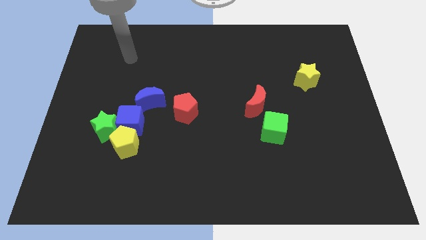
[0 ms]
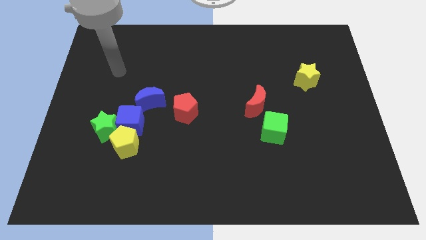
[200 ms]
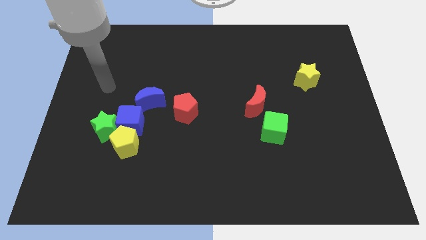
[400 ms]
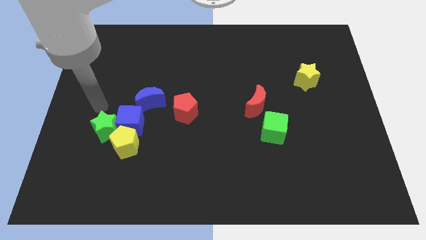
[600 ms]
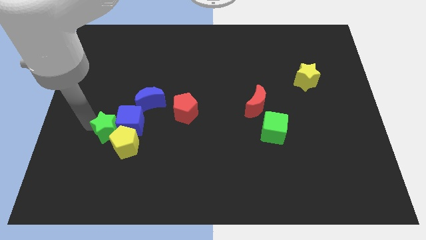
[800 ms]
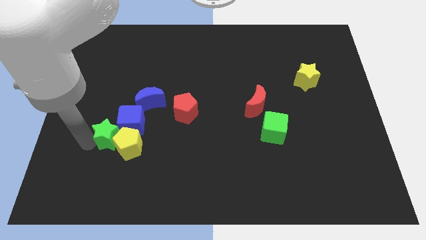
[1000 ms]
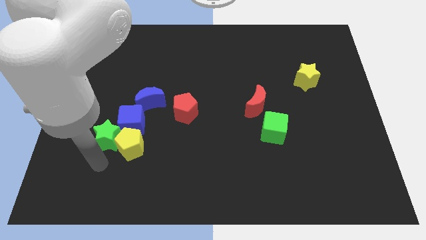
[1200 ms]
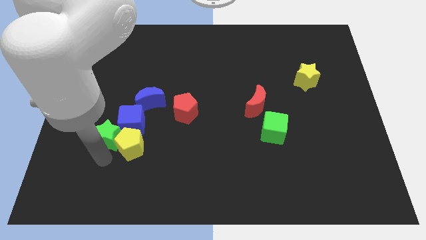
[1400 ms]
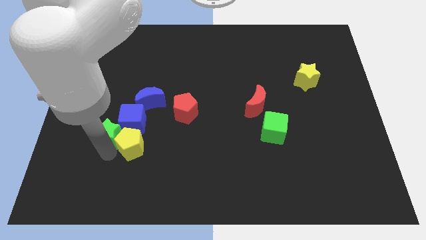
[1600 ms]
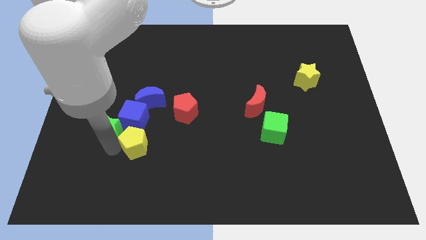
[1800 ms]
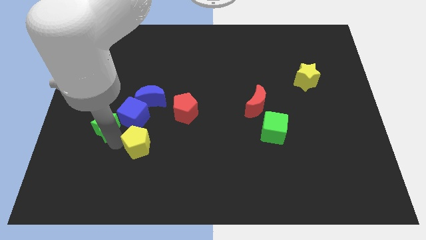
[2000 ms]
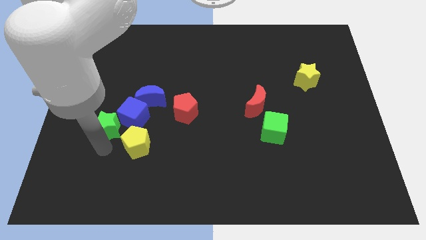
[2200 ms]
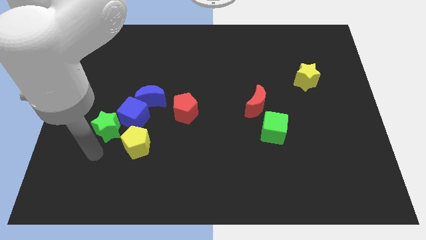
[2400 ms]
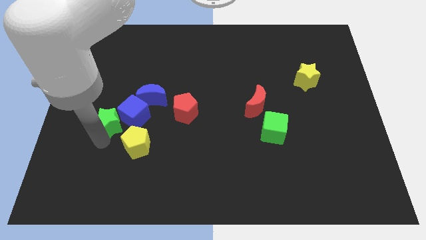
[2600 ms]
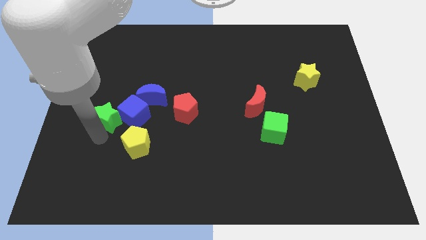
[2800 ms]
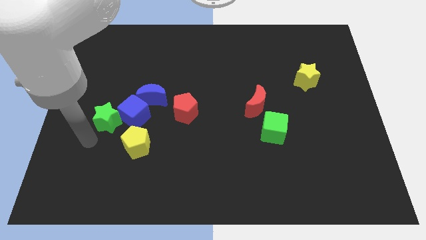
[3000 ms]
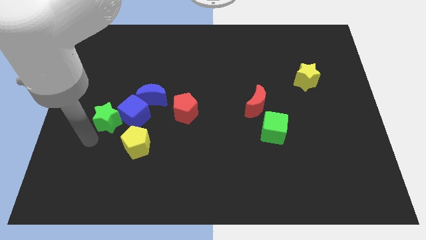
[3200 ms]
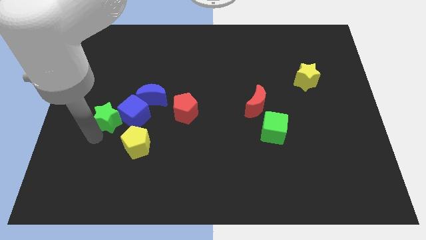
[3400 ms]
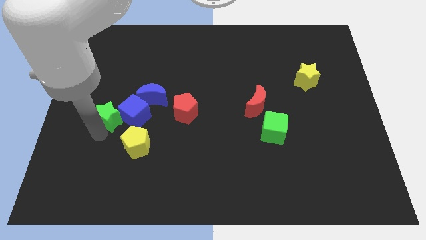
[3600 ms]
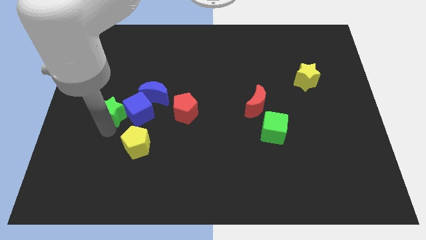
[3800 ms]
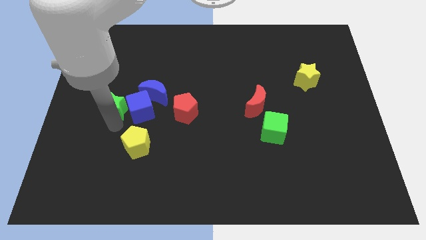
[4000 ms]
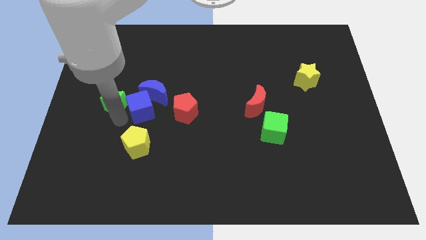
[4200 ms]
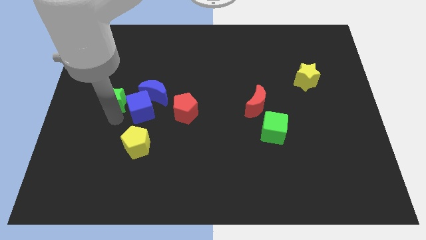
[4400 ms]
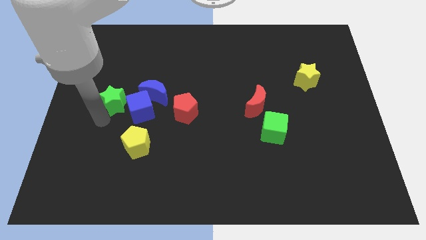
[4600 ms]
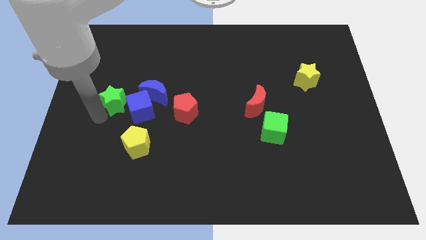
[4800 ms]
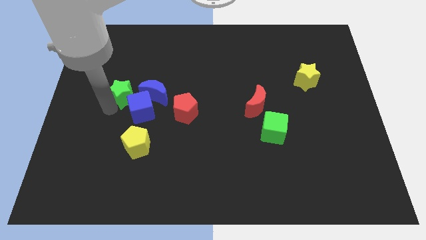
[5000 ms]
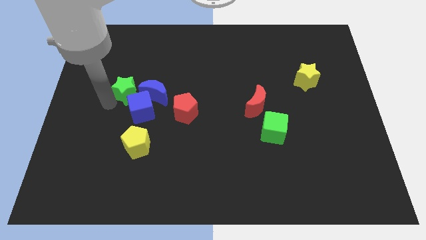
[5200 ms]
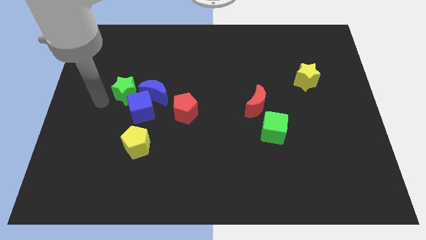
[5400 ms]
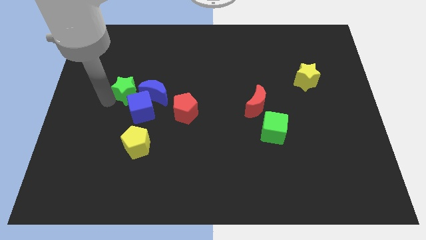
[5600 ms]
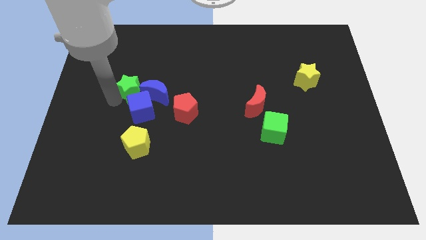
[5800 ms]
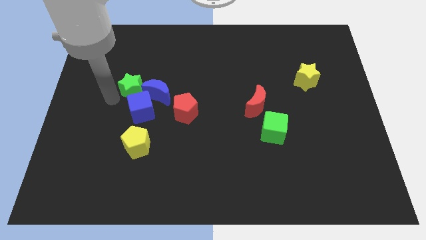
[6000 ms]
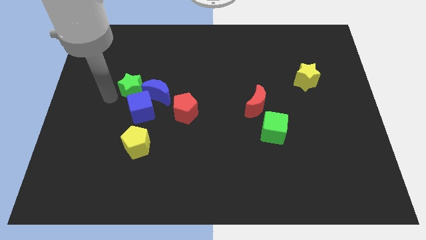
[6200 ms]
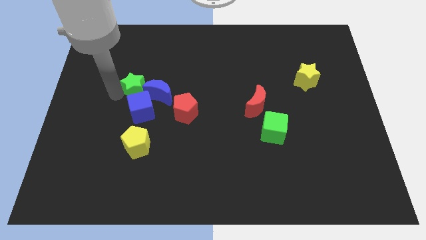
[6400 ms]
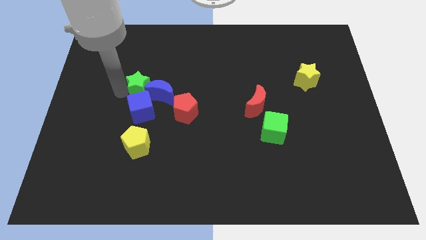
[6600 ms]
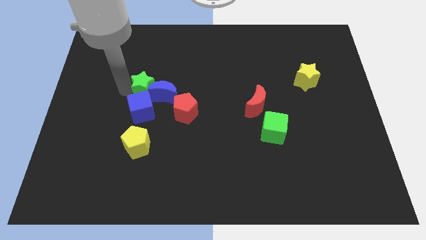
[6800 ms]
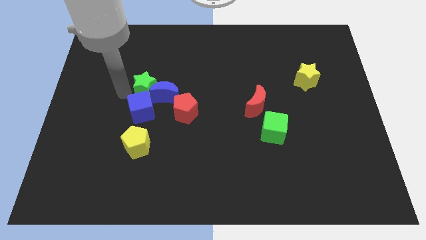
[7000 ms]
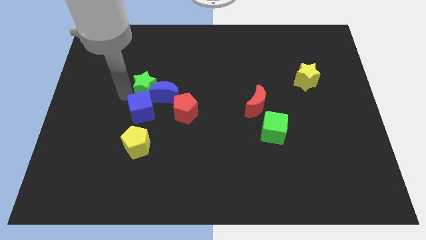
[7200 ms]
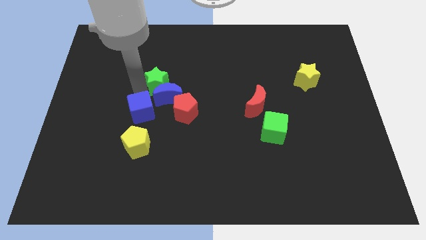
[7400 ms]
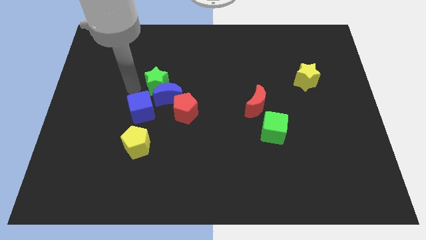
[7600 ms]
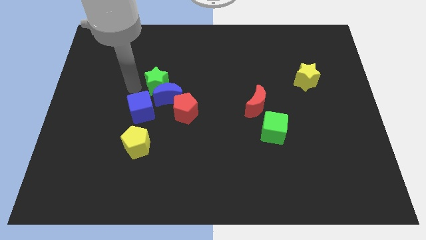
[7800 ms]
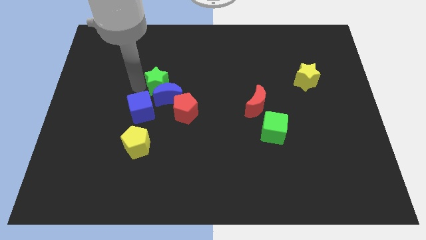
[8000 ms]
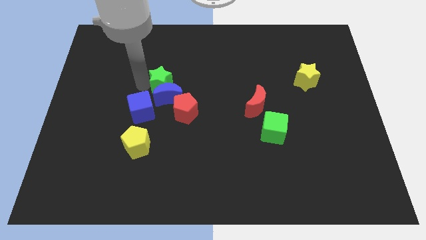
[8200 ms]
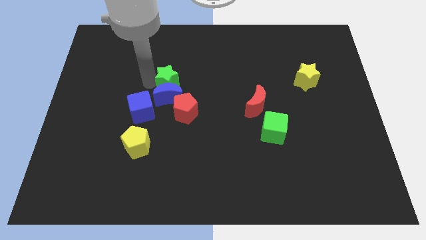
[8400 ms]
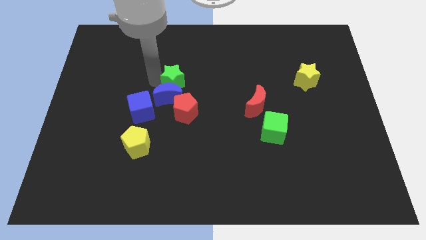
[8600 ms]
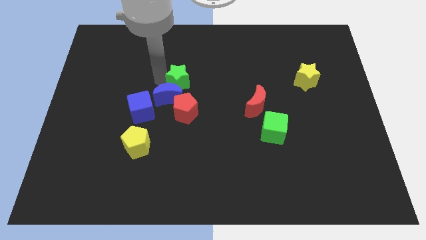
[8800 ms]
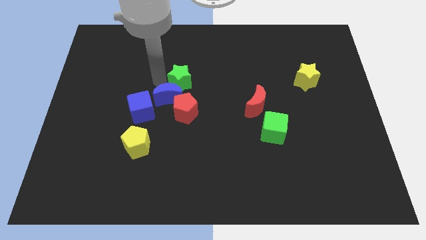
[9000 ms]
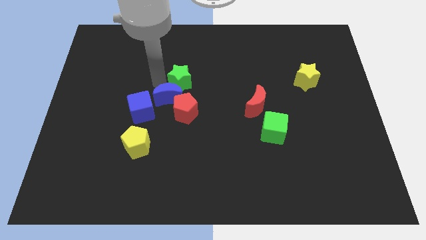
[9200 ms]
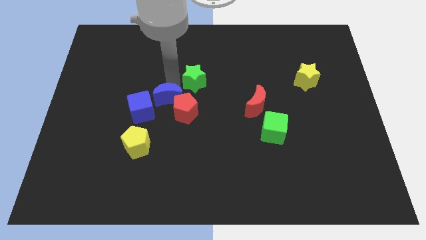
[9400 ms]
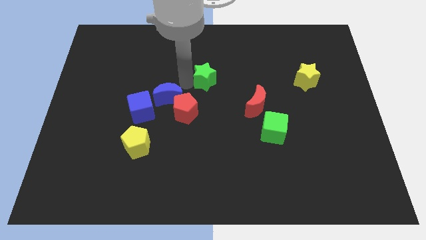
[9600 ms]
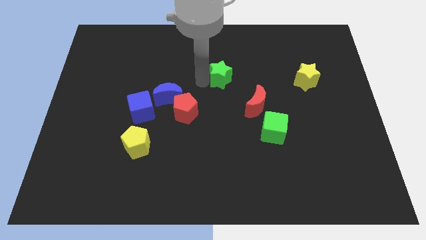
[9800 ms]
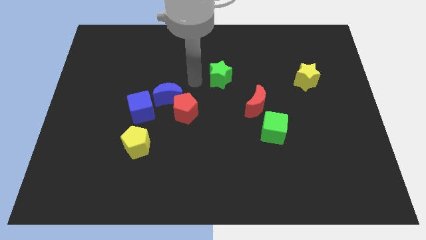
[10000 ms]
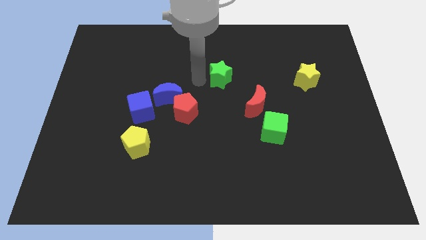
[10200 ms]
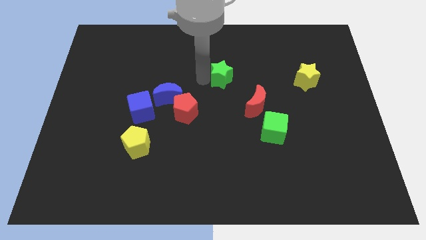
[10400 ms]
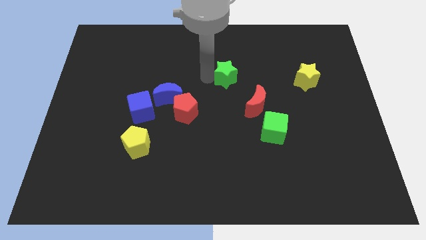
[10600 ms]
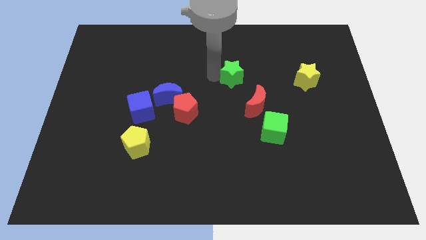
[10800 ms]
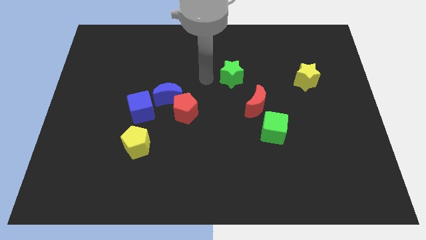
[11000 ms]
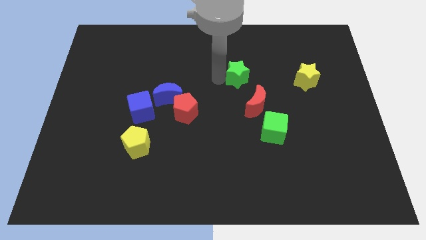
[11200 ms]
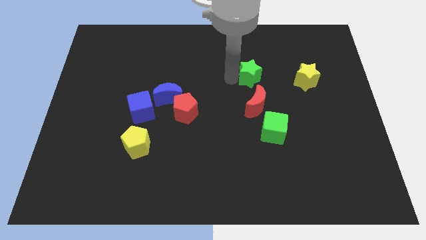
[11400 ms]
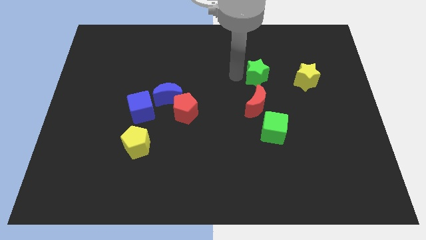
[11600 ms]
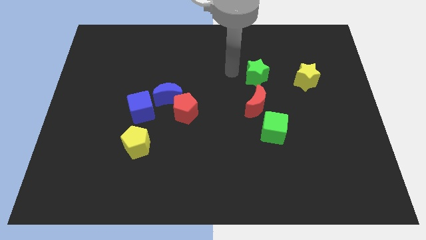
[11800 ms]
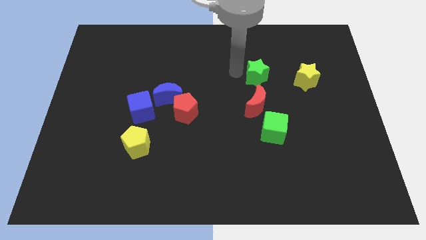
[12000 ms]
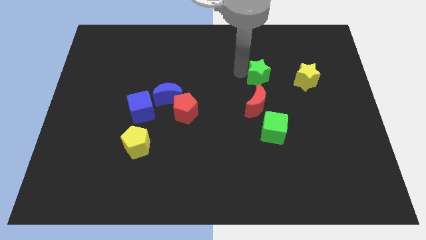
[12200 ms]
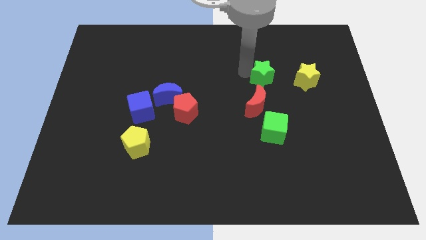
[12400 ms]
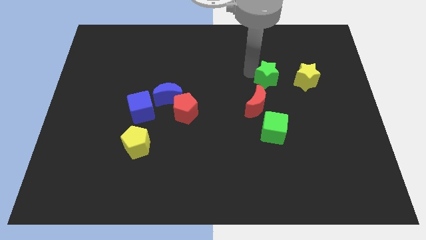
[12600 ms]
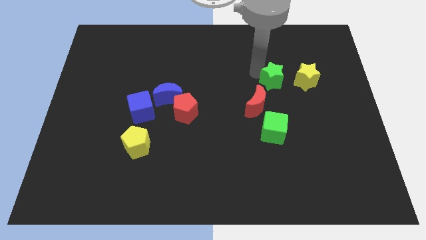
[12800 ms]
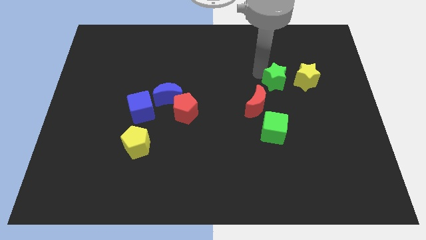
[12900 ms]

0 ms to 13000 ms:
push the green star to the bottom left of the yellow star
